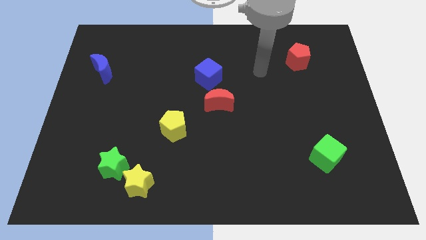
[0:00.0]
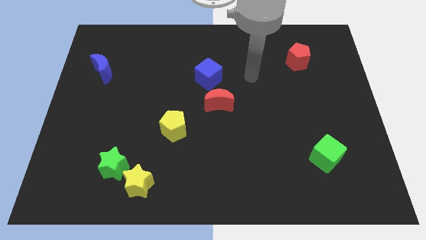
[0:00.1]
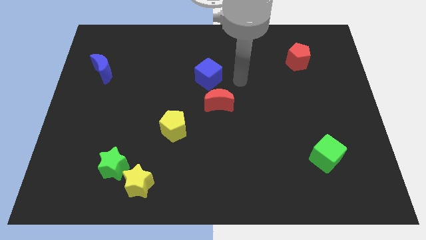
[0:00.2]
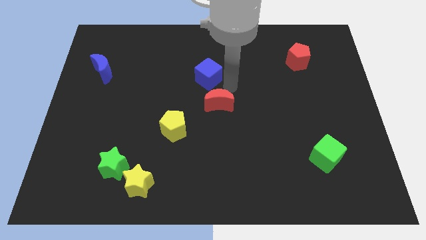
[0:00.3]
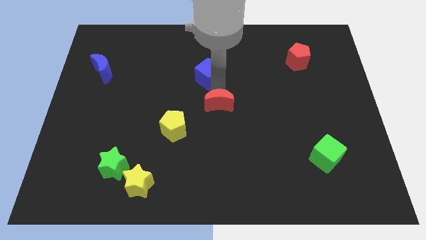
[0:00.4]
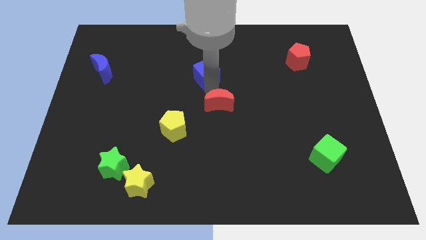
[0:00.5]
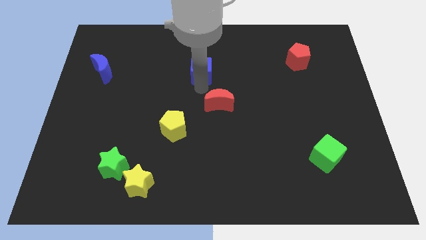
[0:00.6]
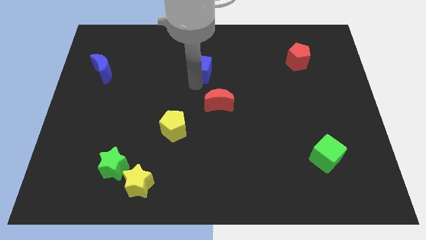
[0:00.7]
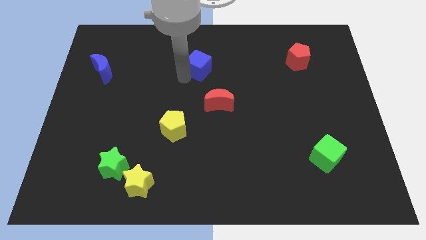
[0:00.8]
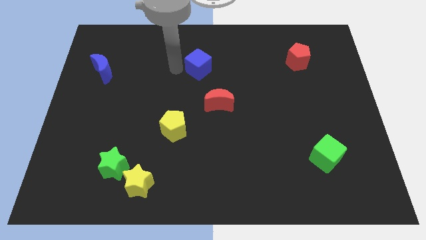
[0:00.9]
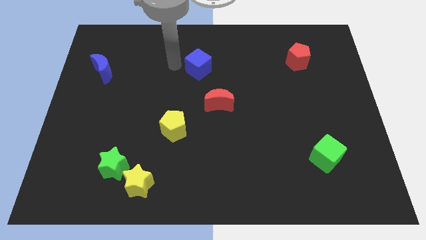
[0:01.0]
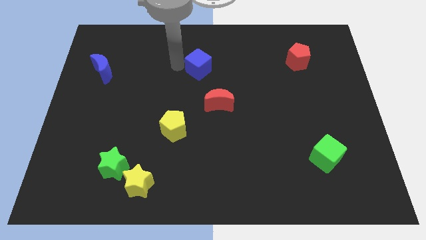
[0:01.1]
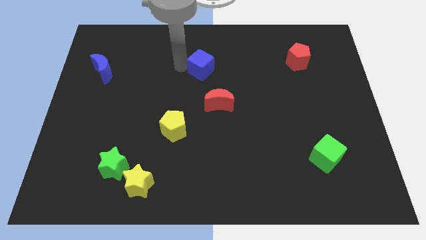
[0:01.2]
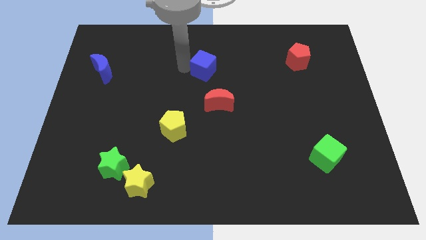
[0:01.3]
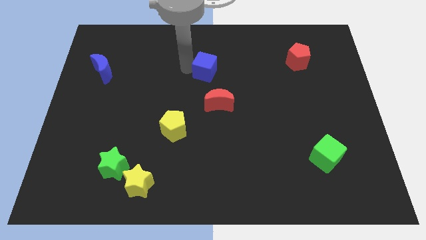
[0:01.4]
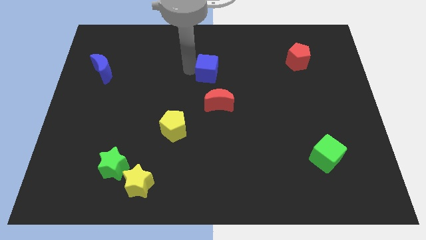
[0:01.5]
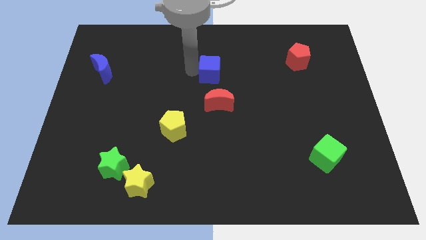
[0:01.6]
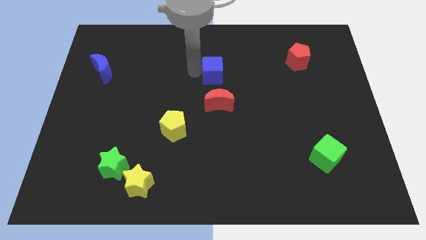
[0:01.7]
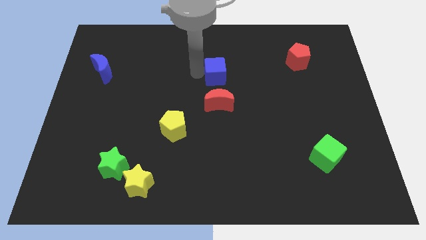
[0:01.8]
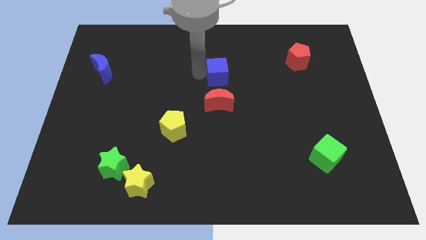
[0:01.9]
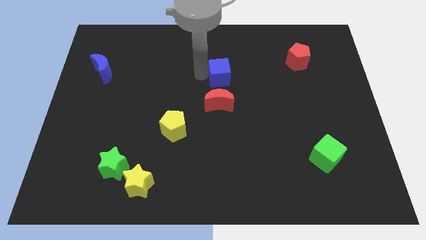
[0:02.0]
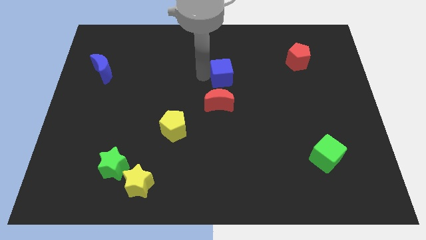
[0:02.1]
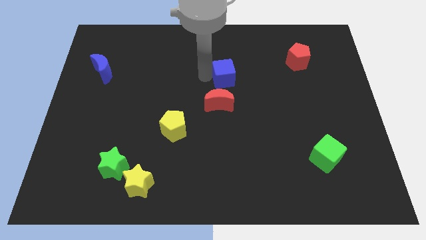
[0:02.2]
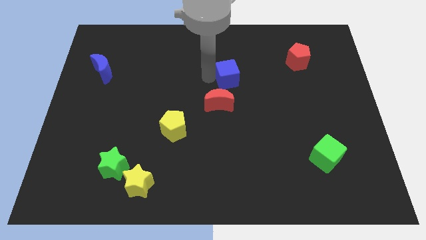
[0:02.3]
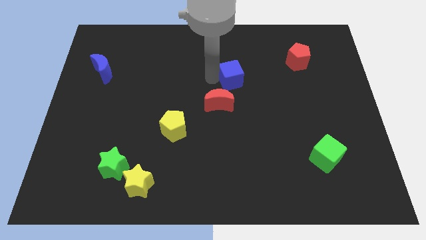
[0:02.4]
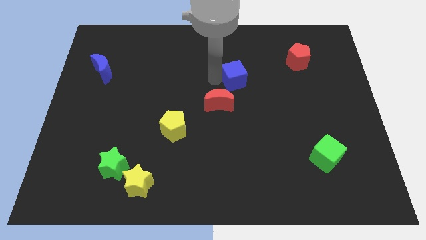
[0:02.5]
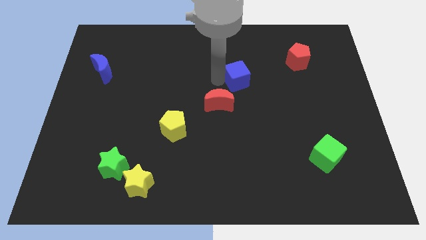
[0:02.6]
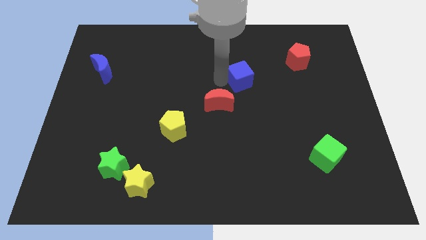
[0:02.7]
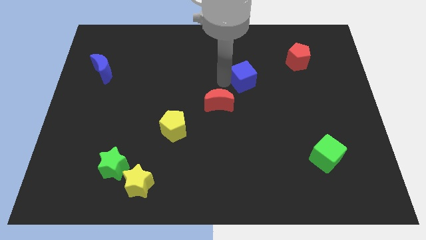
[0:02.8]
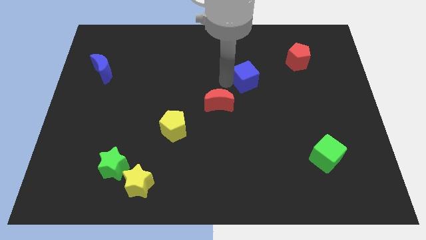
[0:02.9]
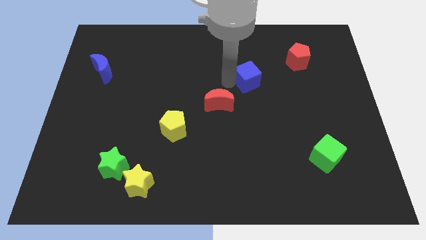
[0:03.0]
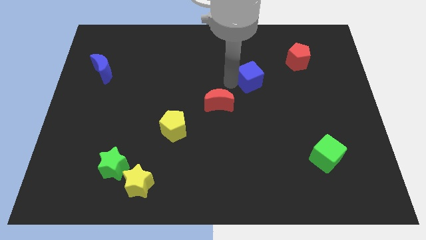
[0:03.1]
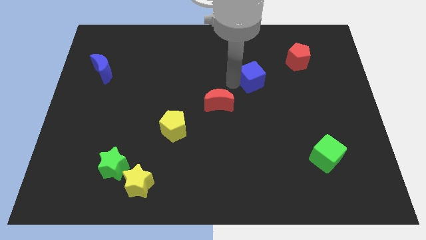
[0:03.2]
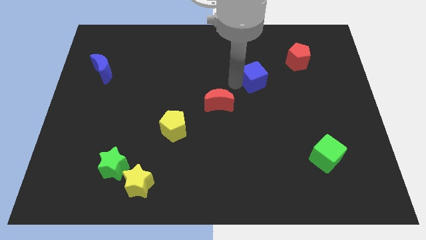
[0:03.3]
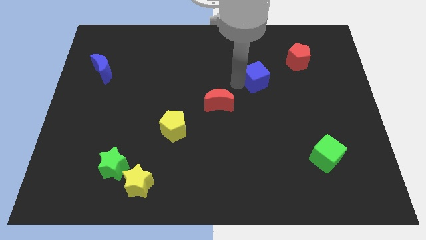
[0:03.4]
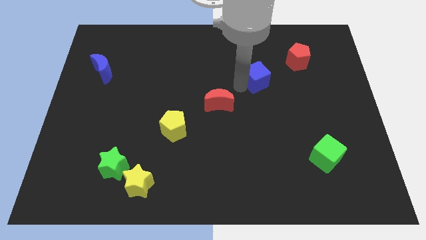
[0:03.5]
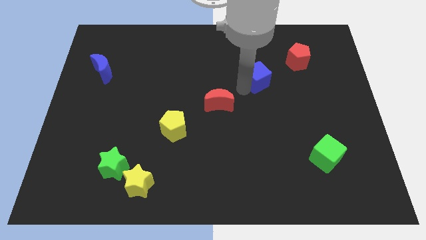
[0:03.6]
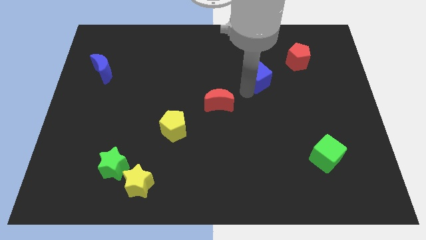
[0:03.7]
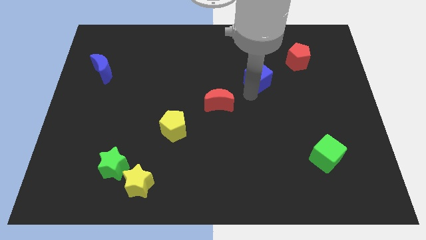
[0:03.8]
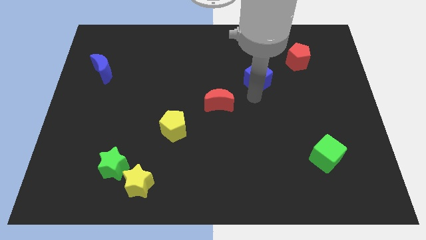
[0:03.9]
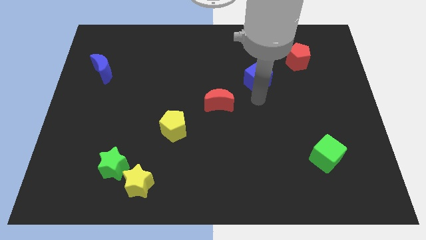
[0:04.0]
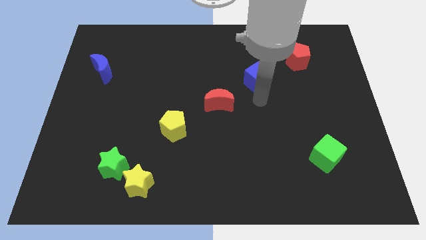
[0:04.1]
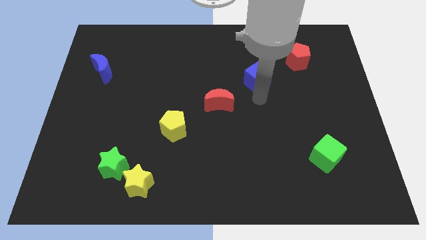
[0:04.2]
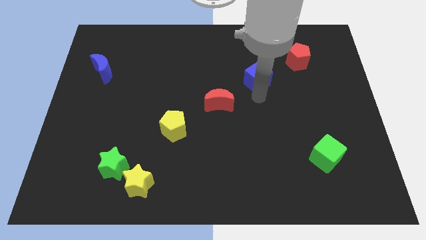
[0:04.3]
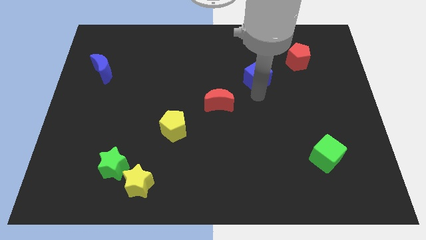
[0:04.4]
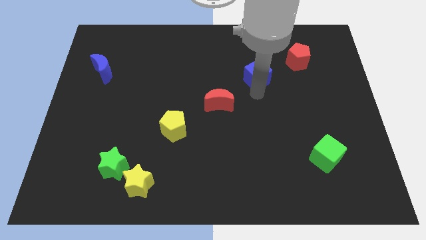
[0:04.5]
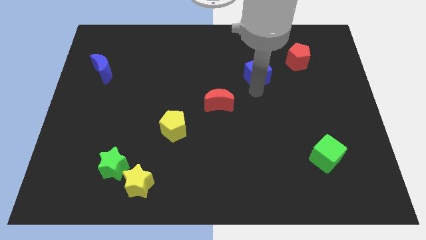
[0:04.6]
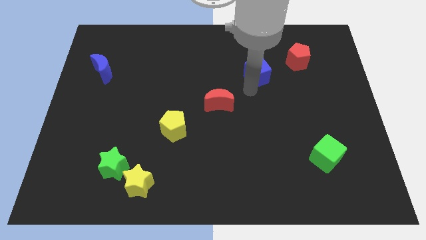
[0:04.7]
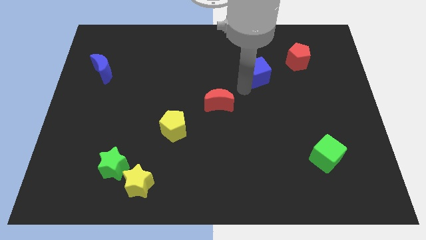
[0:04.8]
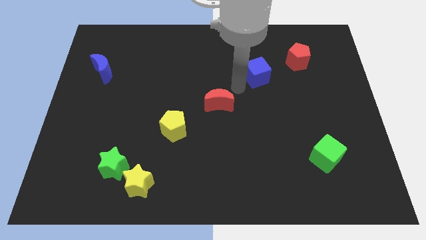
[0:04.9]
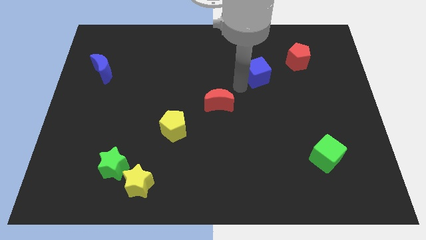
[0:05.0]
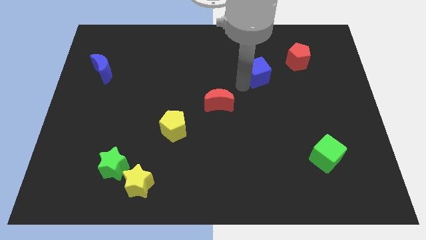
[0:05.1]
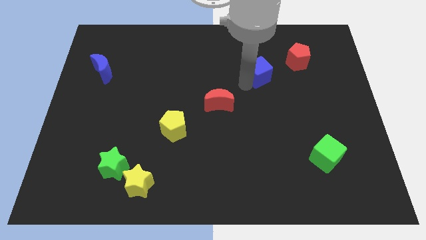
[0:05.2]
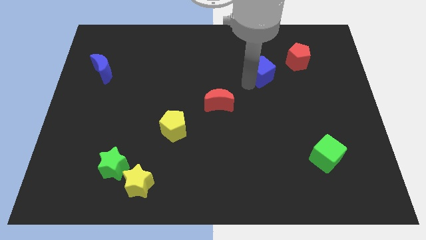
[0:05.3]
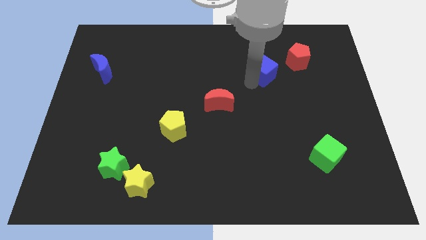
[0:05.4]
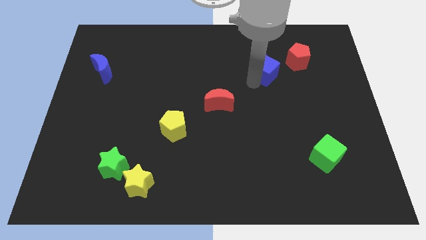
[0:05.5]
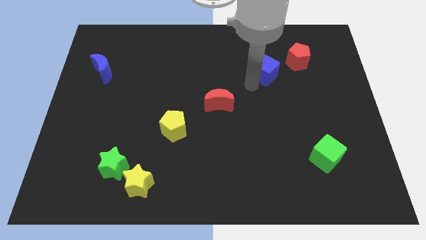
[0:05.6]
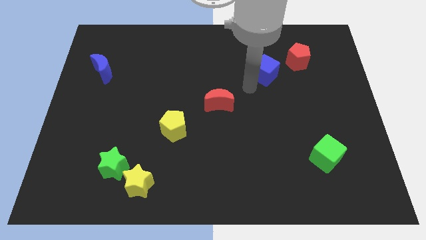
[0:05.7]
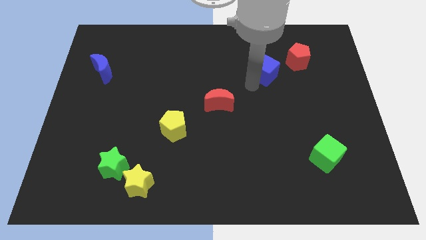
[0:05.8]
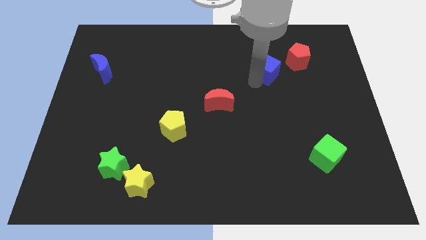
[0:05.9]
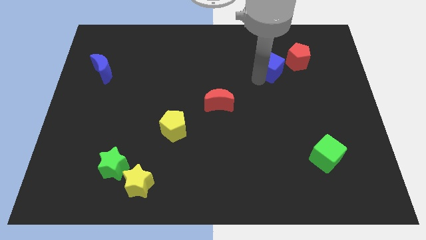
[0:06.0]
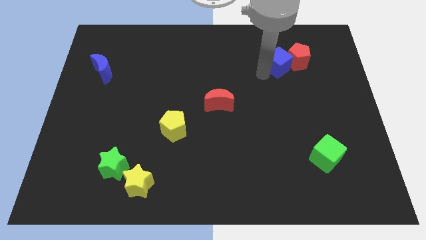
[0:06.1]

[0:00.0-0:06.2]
slide the blue cube to the red pentagon

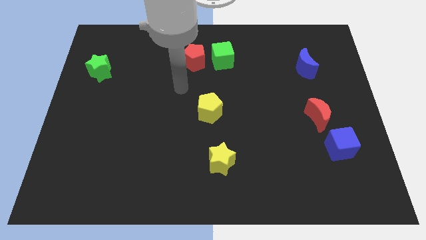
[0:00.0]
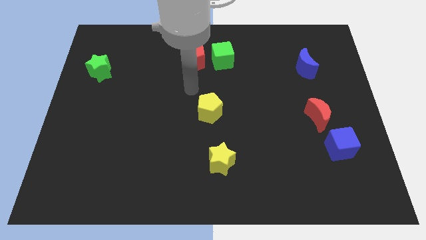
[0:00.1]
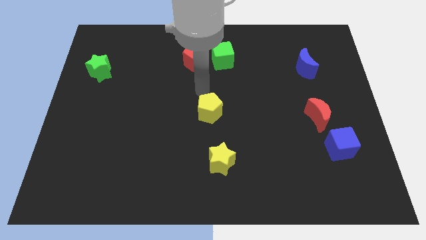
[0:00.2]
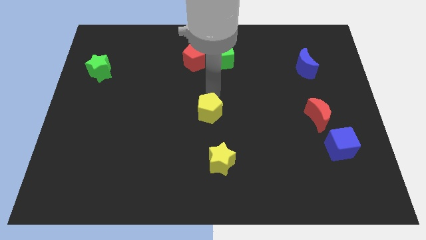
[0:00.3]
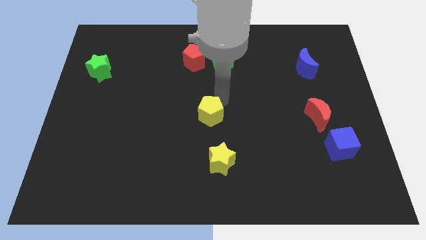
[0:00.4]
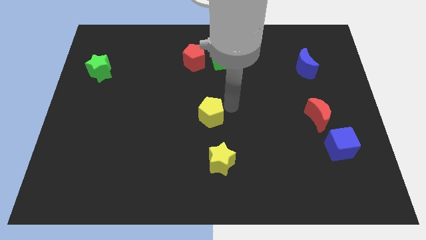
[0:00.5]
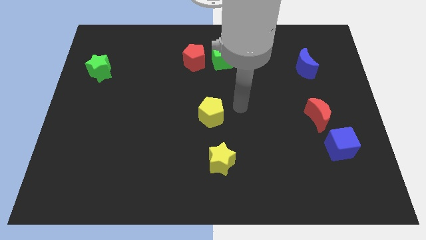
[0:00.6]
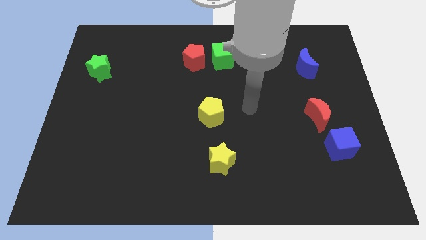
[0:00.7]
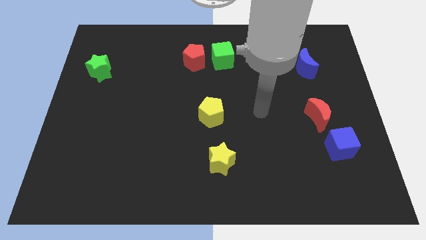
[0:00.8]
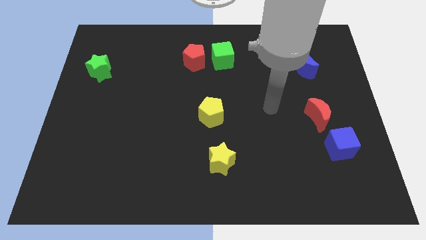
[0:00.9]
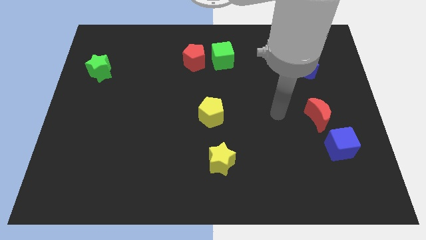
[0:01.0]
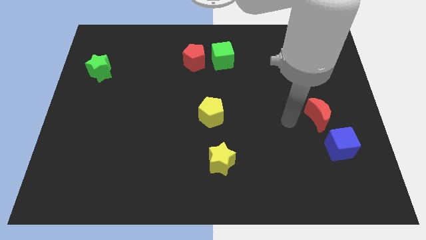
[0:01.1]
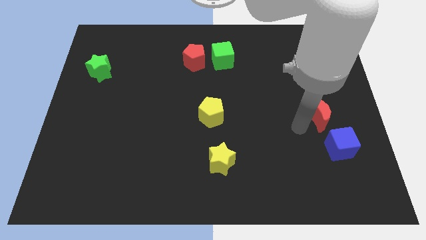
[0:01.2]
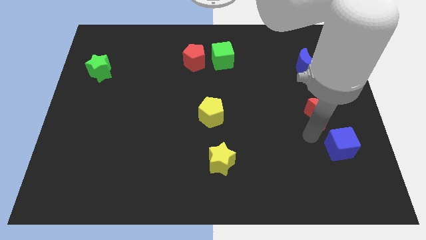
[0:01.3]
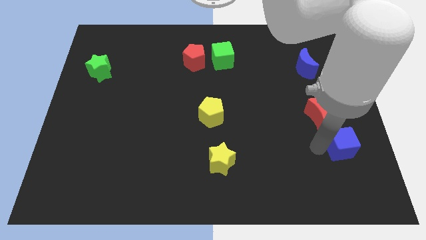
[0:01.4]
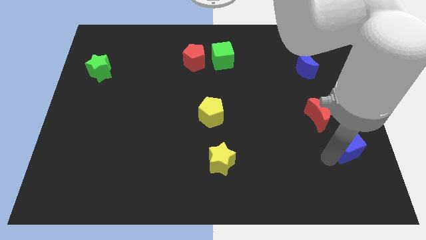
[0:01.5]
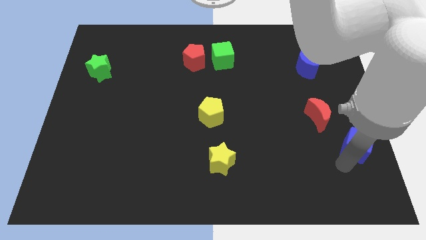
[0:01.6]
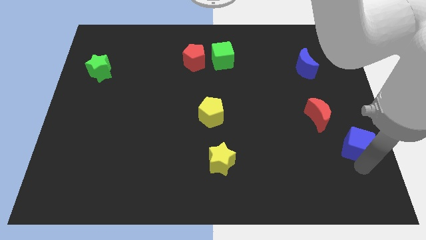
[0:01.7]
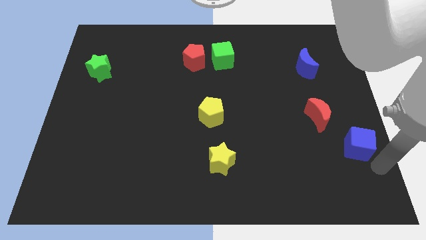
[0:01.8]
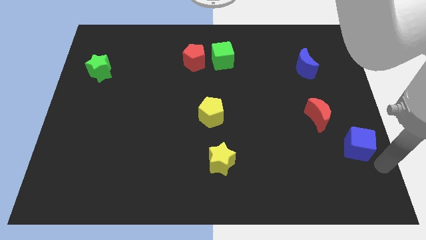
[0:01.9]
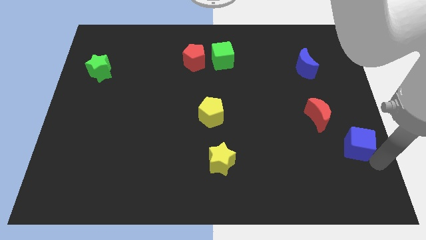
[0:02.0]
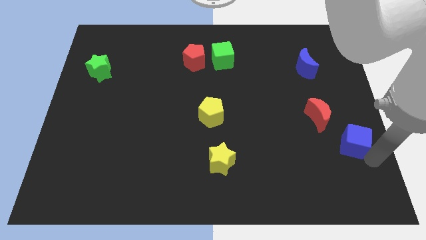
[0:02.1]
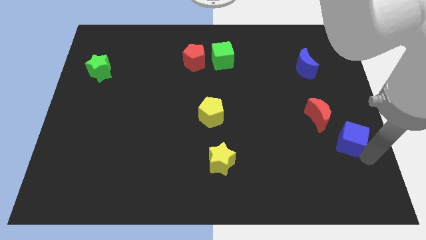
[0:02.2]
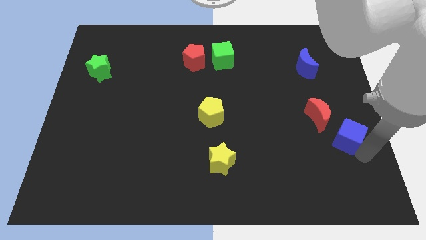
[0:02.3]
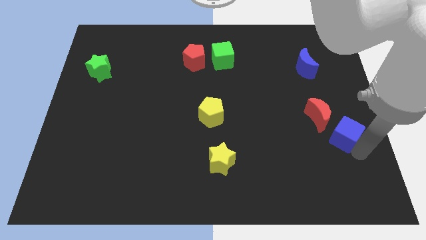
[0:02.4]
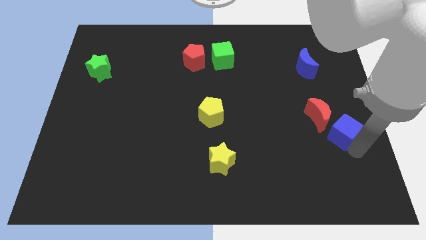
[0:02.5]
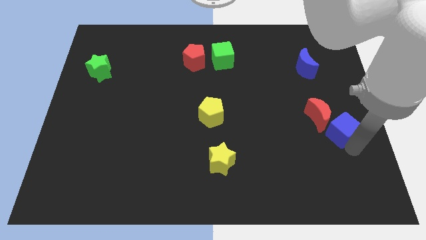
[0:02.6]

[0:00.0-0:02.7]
push the blue cube to the red moon
